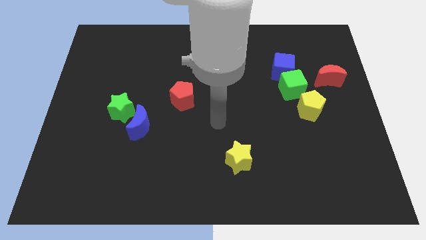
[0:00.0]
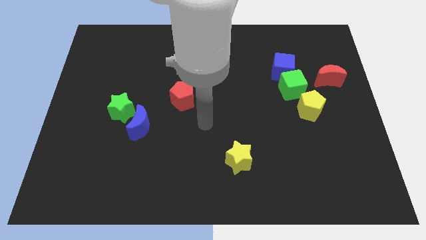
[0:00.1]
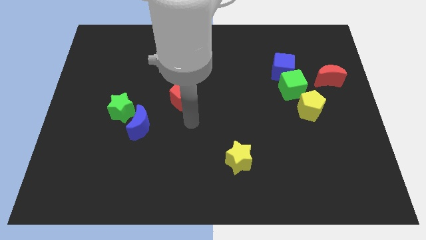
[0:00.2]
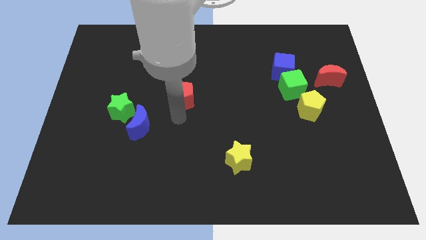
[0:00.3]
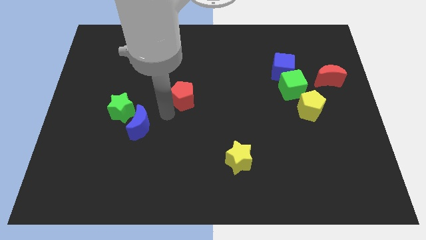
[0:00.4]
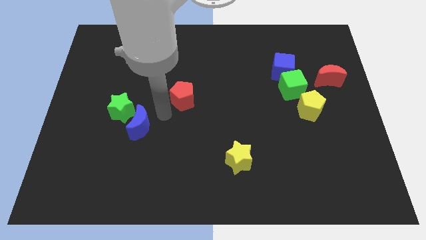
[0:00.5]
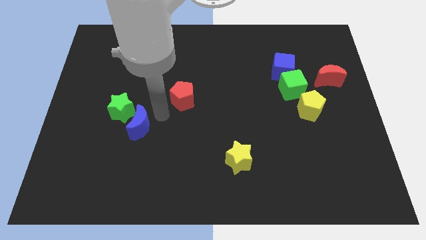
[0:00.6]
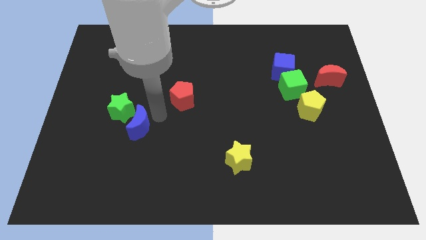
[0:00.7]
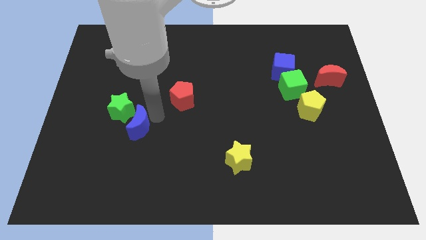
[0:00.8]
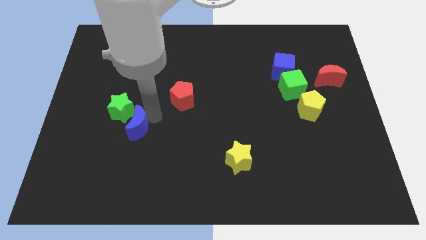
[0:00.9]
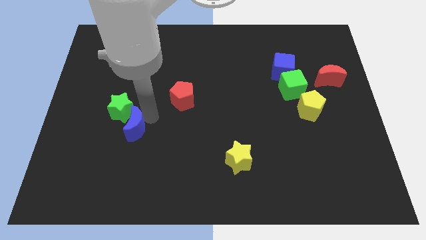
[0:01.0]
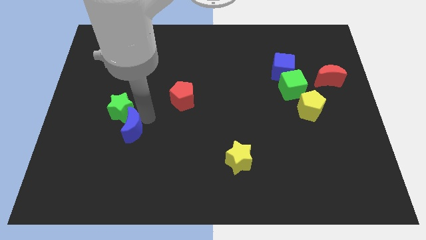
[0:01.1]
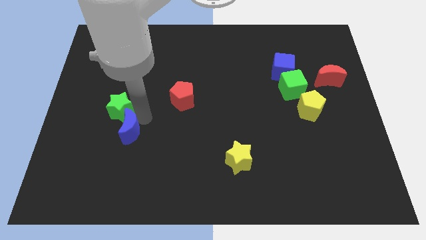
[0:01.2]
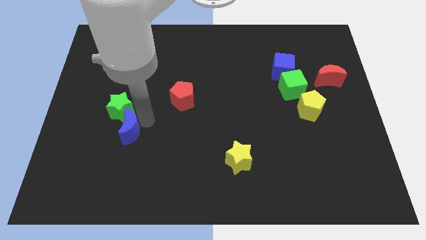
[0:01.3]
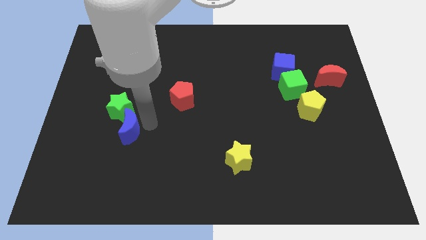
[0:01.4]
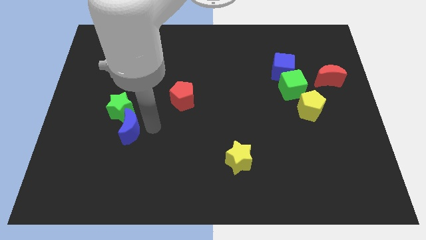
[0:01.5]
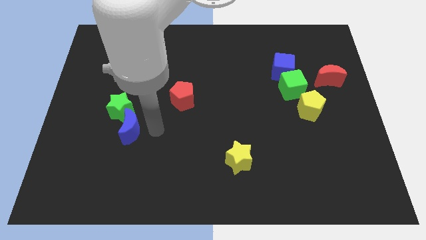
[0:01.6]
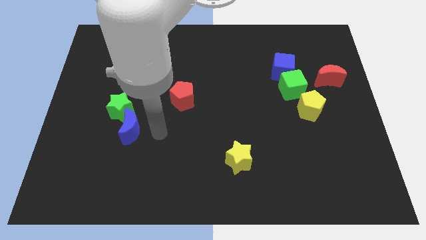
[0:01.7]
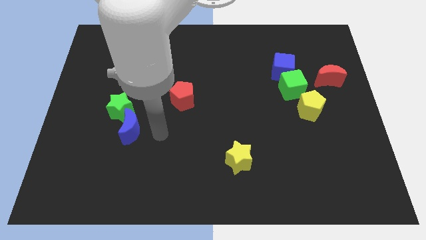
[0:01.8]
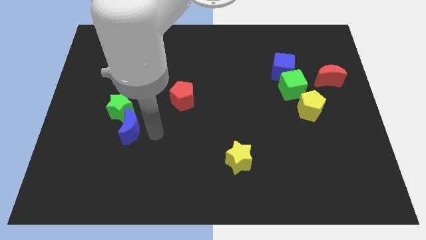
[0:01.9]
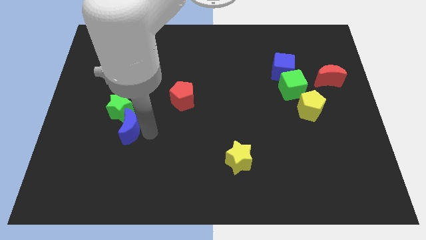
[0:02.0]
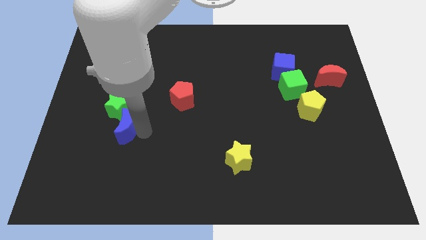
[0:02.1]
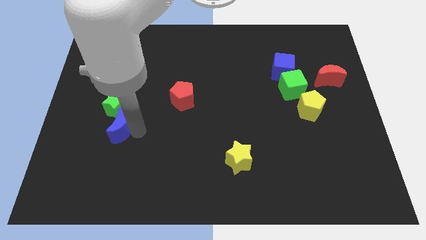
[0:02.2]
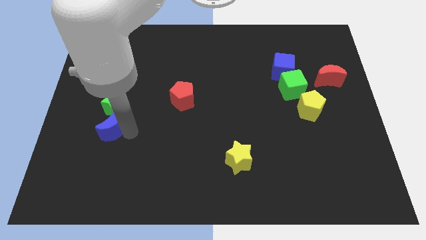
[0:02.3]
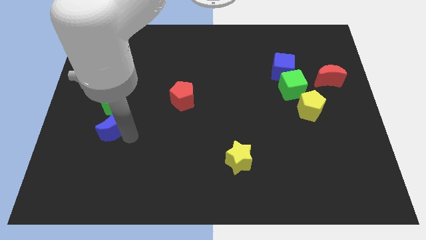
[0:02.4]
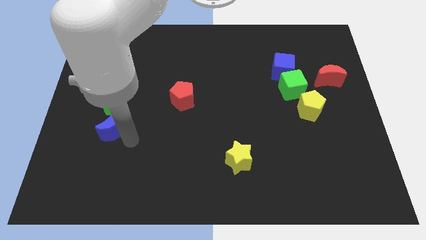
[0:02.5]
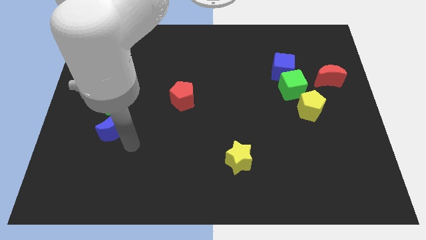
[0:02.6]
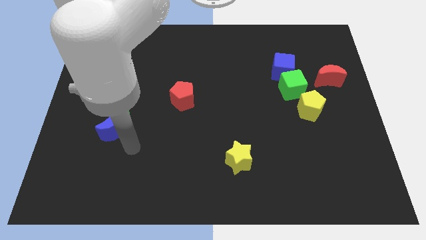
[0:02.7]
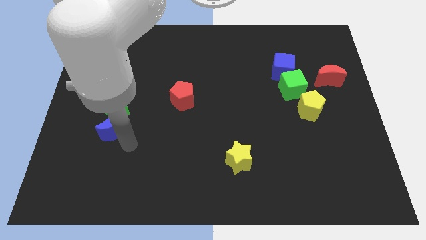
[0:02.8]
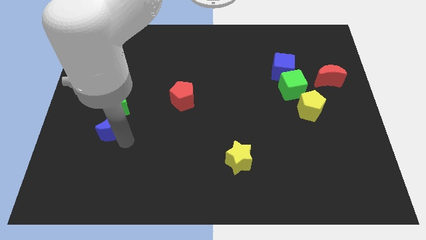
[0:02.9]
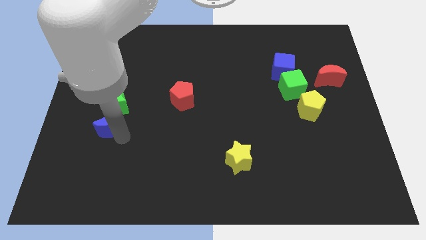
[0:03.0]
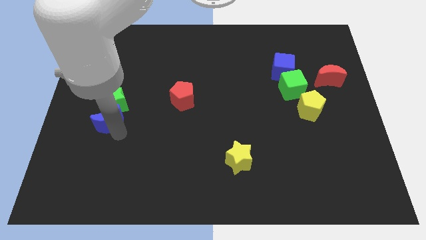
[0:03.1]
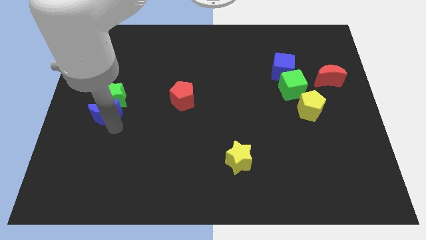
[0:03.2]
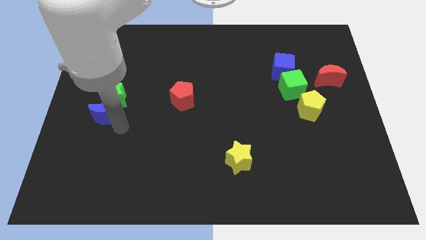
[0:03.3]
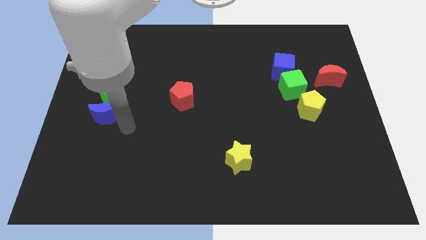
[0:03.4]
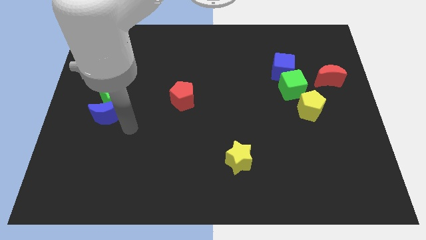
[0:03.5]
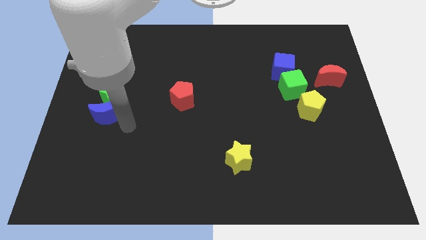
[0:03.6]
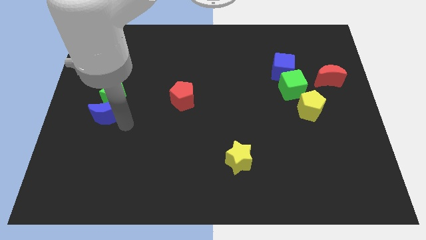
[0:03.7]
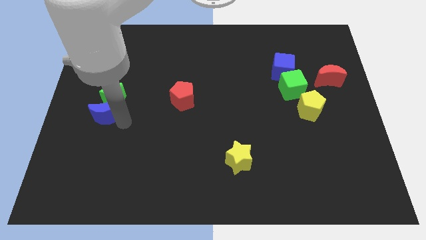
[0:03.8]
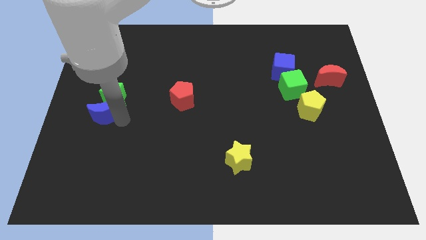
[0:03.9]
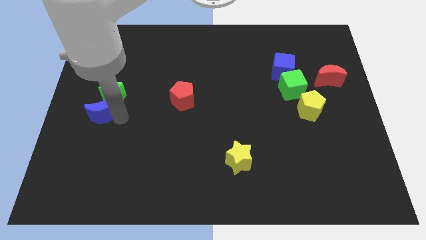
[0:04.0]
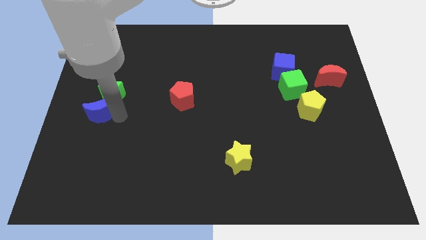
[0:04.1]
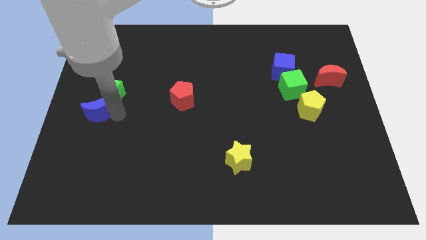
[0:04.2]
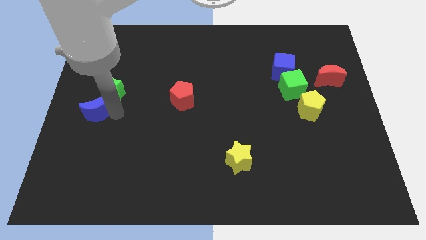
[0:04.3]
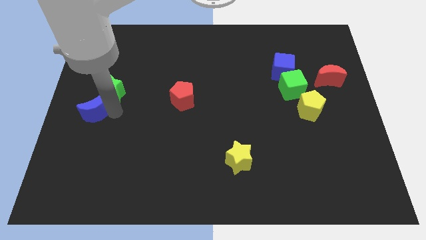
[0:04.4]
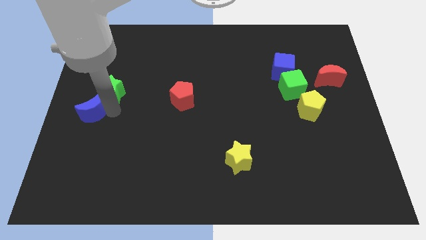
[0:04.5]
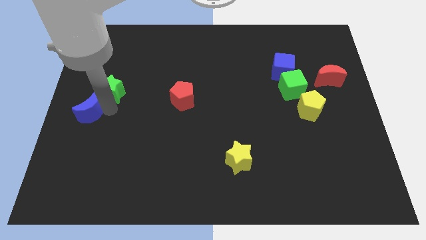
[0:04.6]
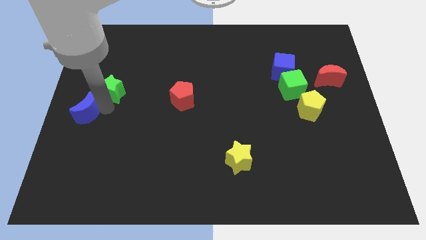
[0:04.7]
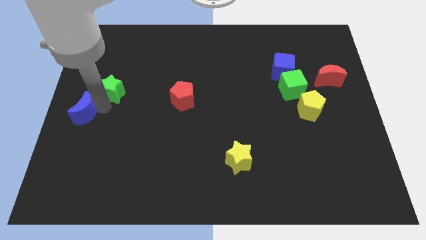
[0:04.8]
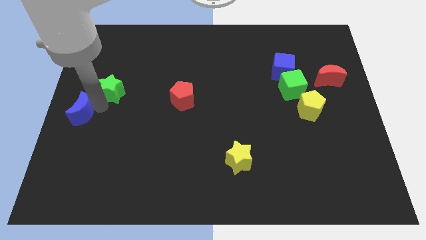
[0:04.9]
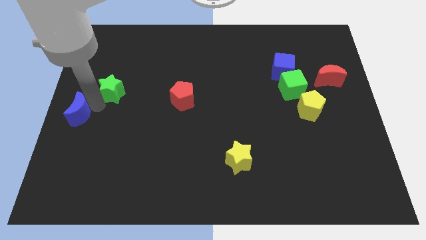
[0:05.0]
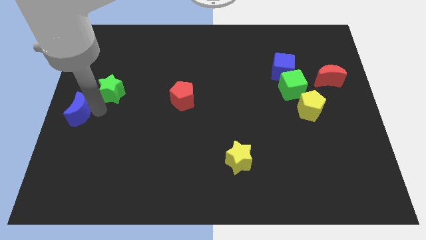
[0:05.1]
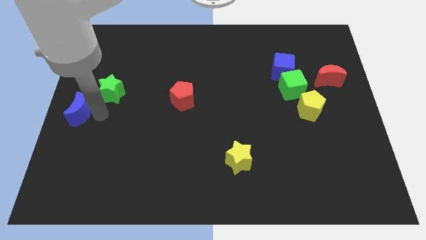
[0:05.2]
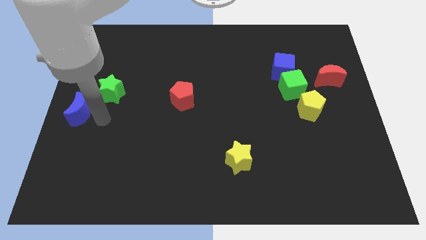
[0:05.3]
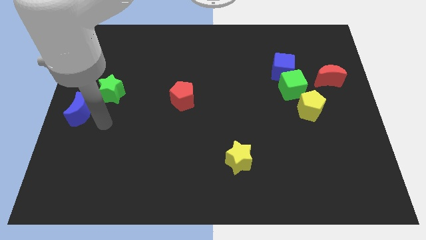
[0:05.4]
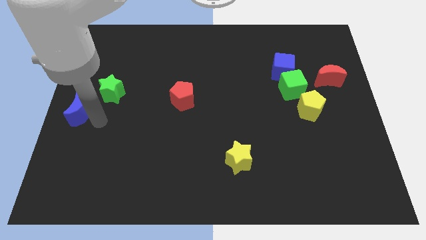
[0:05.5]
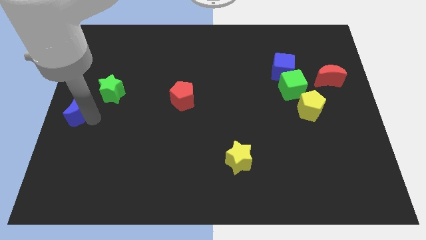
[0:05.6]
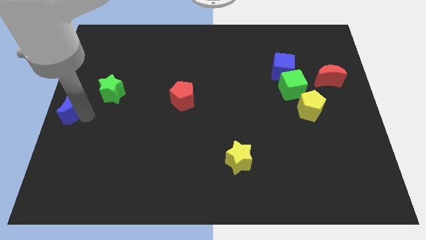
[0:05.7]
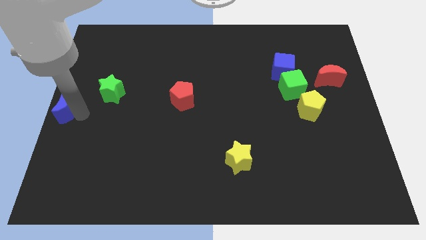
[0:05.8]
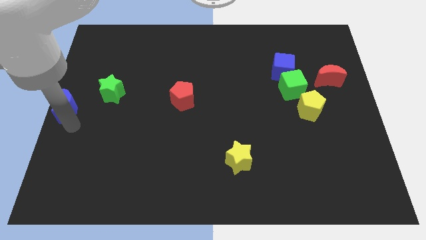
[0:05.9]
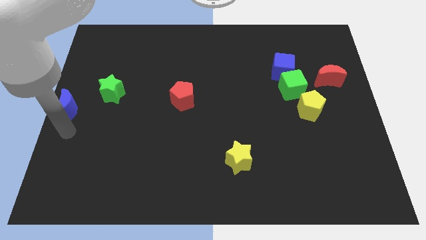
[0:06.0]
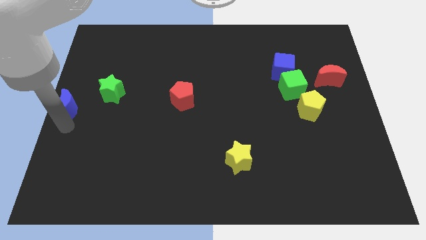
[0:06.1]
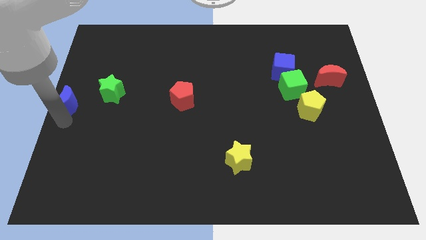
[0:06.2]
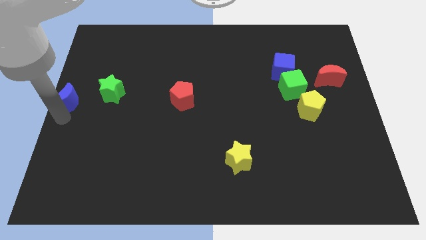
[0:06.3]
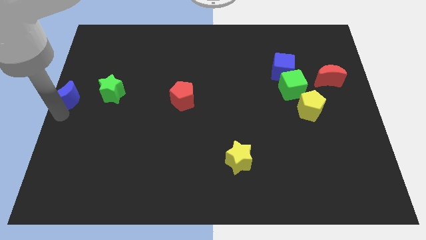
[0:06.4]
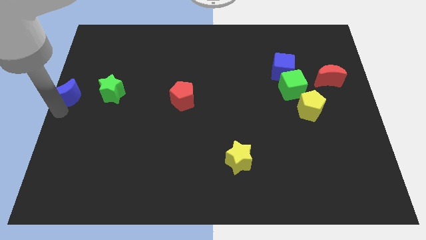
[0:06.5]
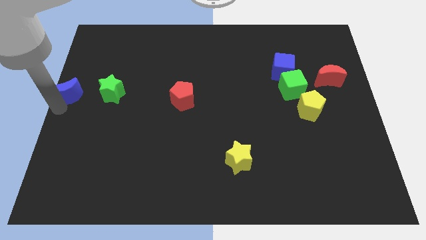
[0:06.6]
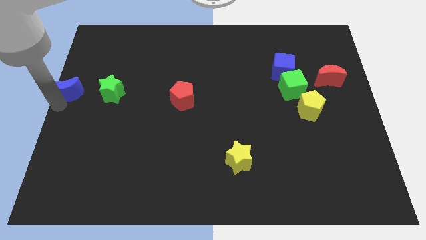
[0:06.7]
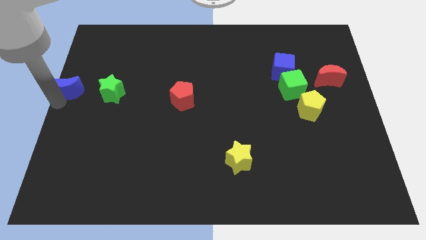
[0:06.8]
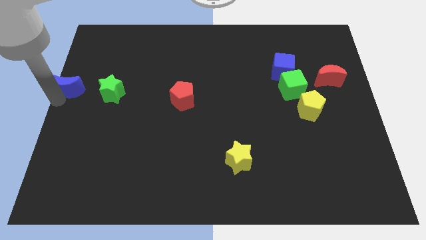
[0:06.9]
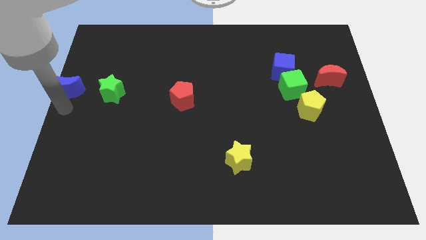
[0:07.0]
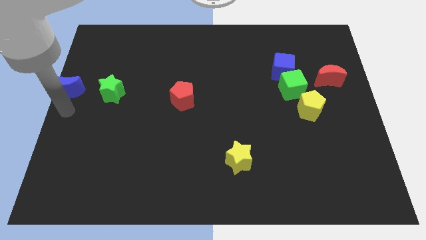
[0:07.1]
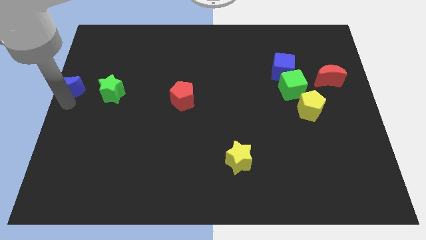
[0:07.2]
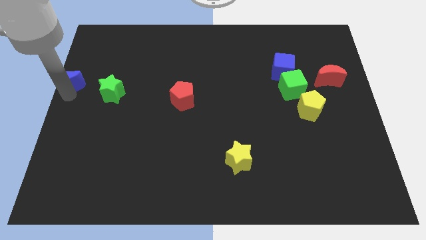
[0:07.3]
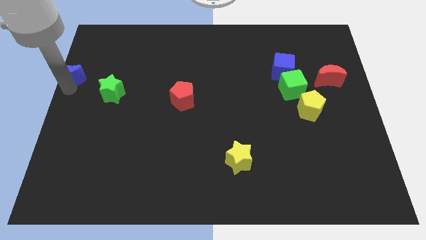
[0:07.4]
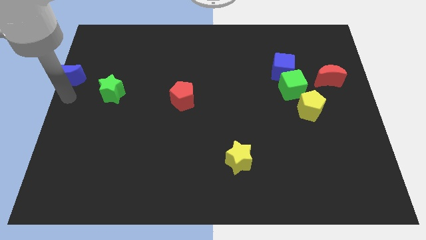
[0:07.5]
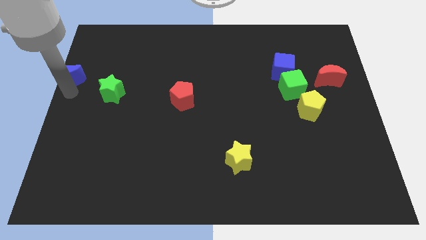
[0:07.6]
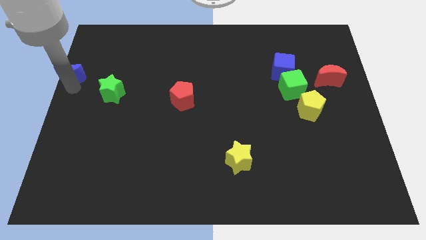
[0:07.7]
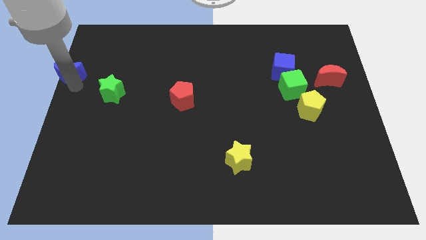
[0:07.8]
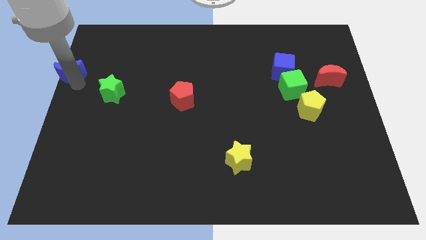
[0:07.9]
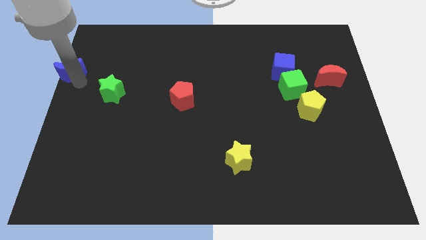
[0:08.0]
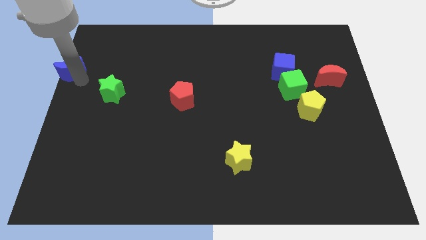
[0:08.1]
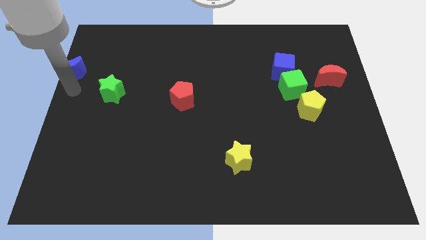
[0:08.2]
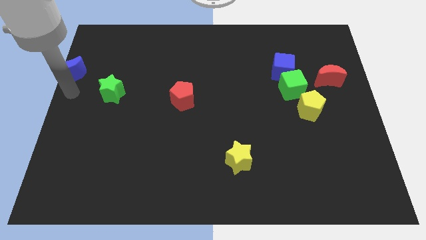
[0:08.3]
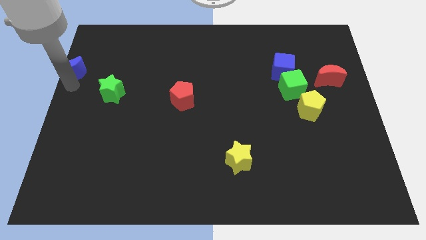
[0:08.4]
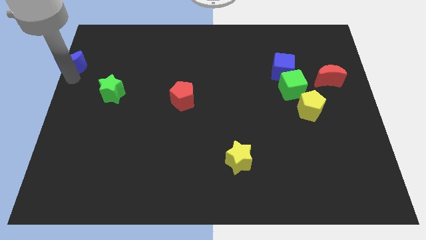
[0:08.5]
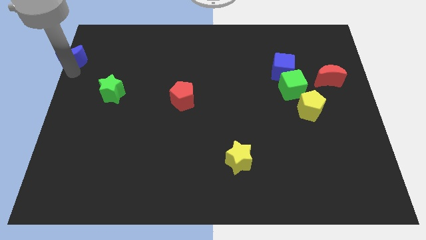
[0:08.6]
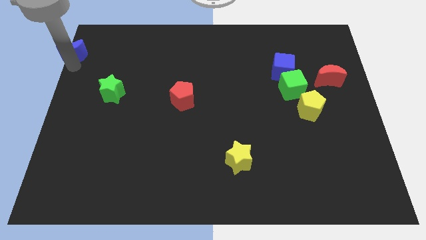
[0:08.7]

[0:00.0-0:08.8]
put the blue moon to the top left corner
